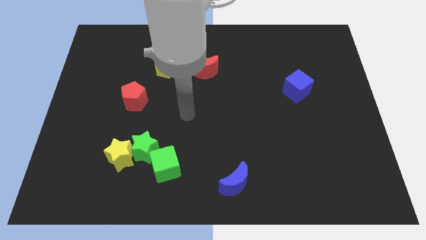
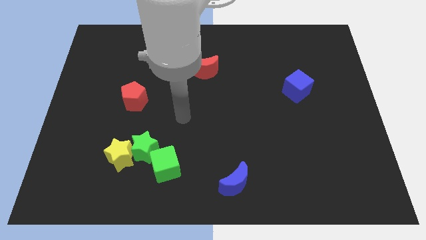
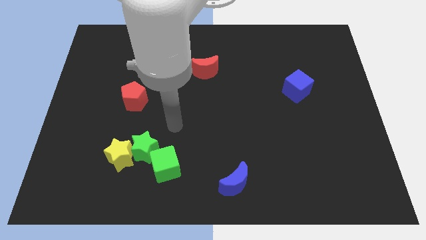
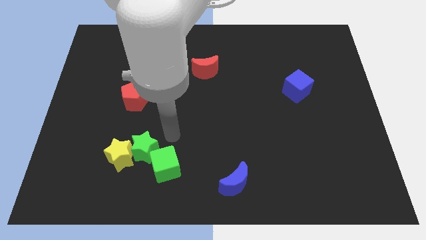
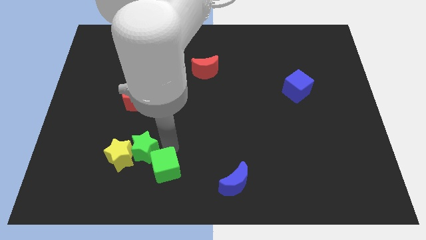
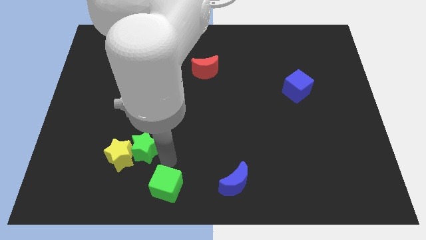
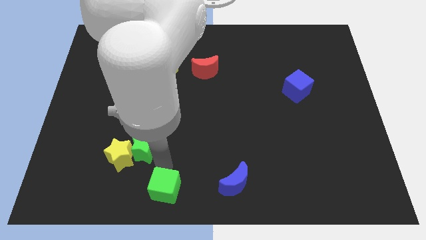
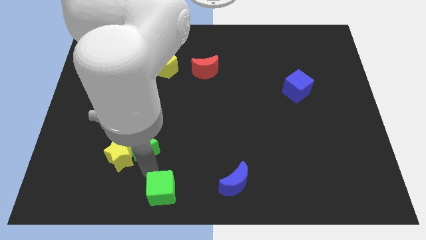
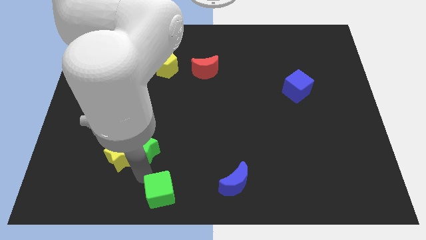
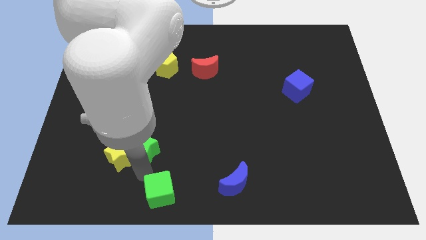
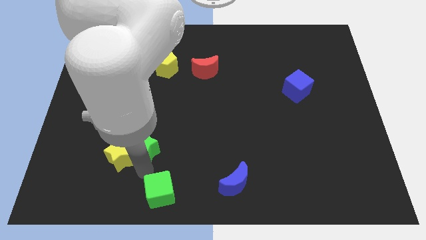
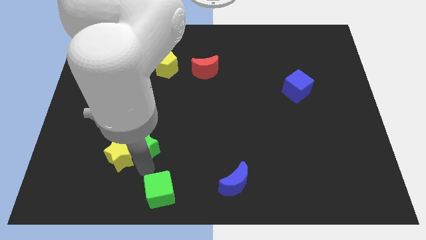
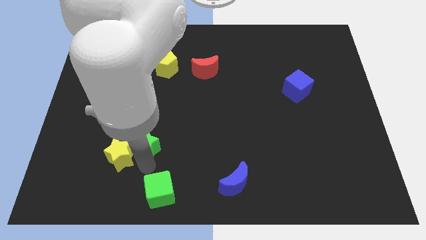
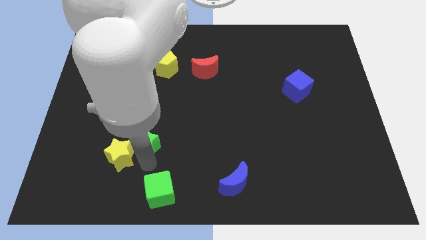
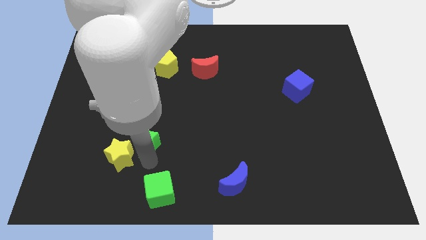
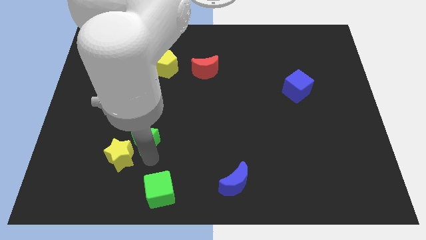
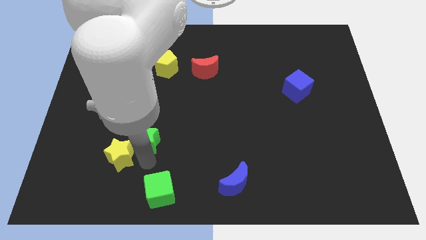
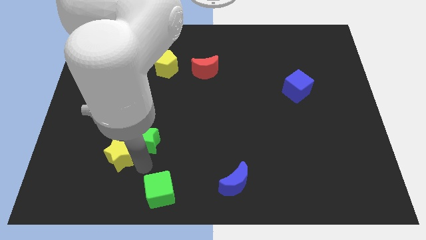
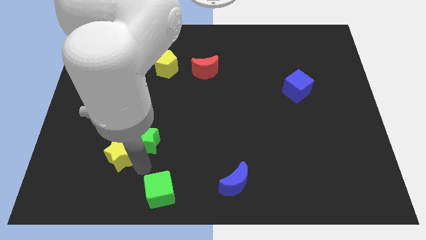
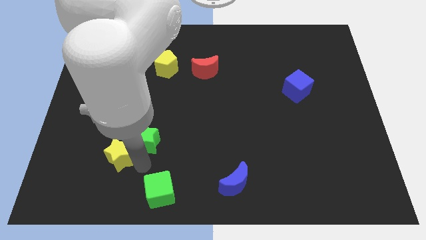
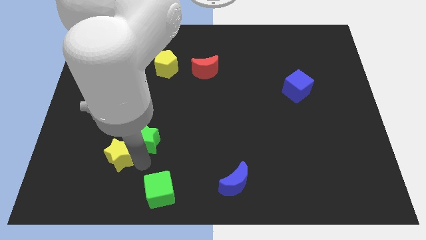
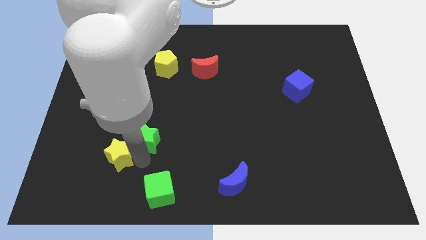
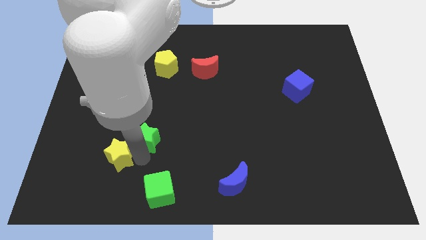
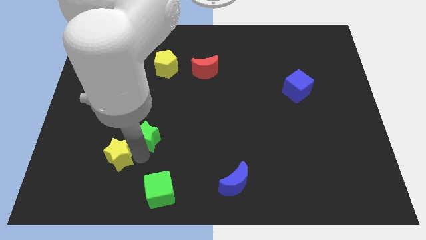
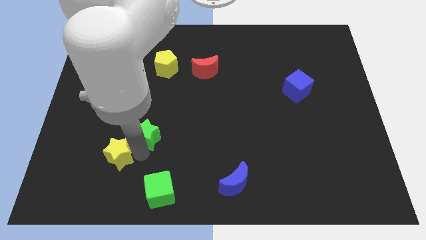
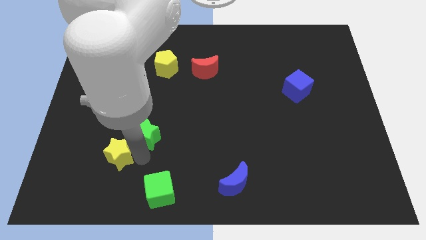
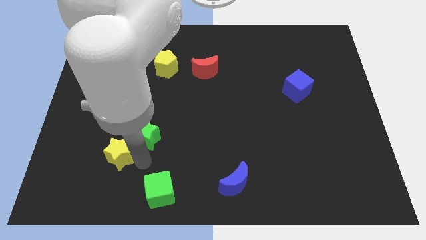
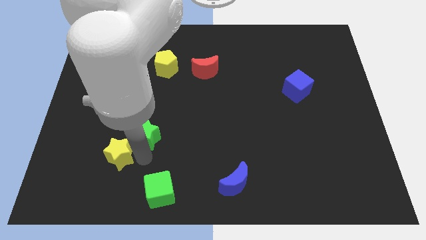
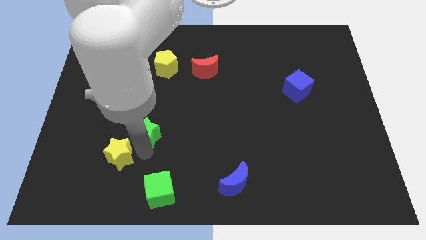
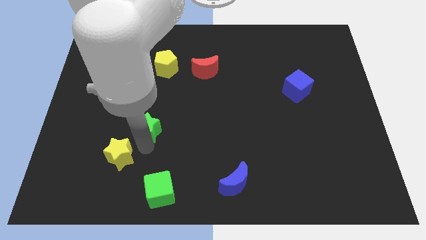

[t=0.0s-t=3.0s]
pull the green star apart from the yellow star and green cube

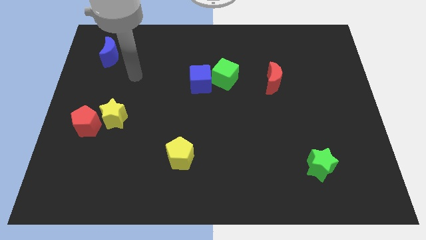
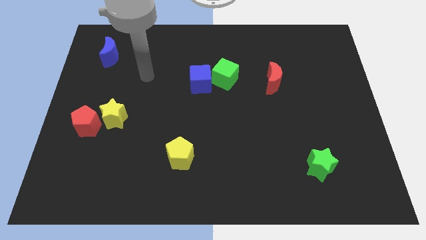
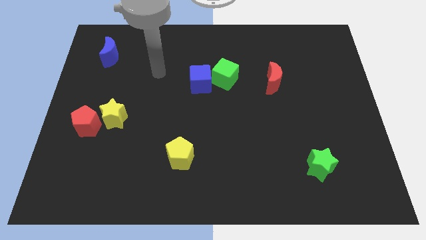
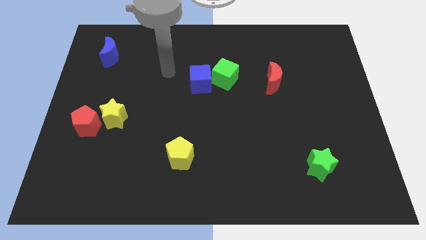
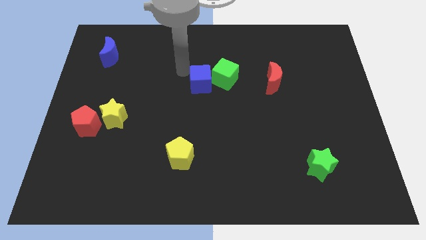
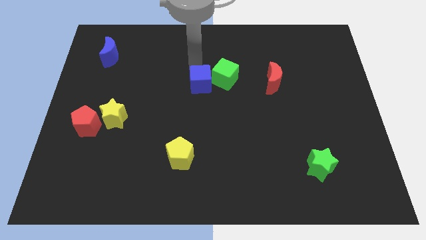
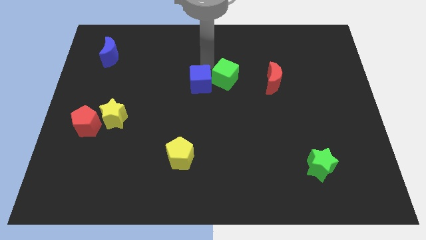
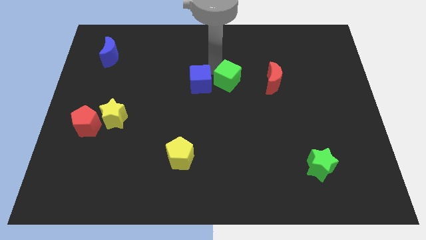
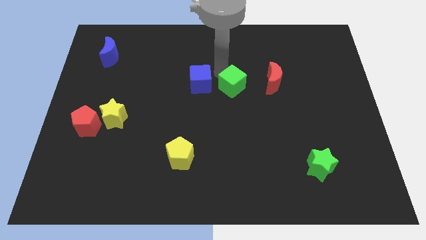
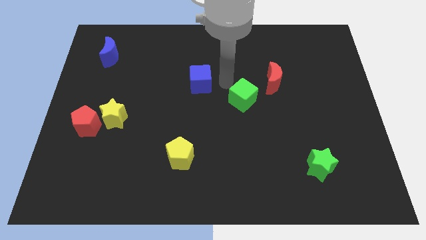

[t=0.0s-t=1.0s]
pull the blue cube apart from the green cube

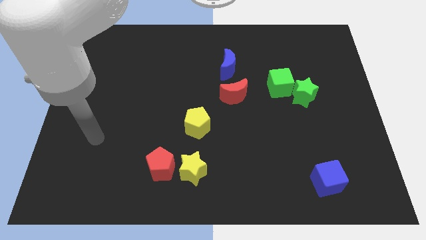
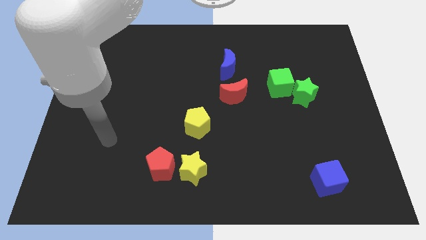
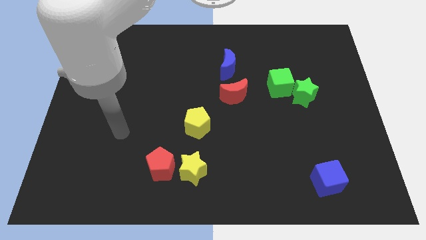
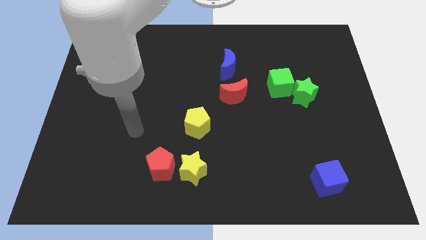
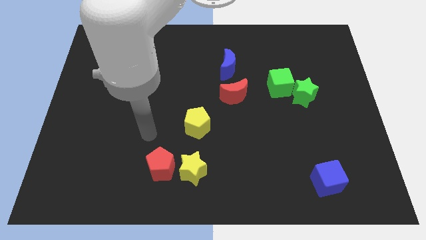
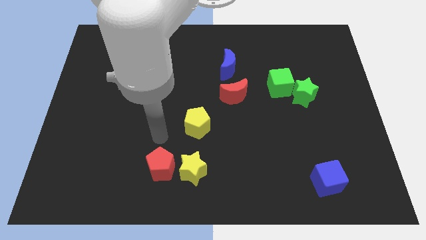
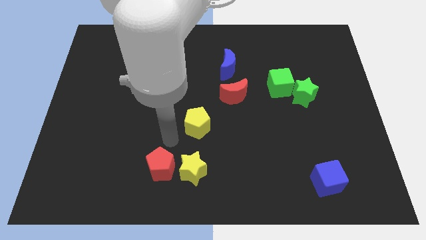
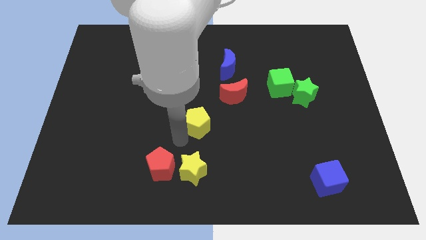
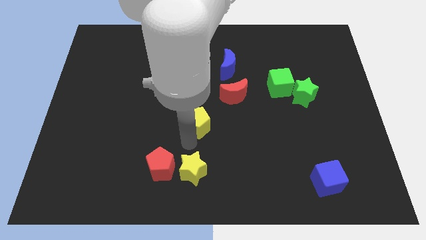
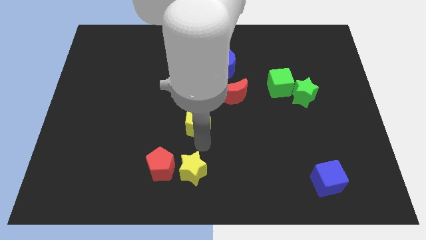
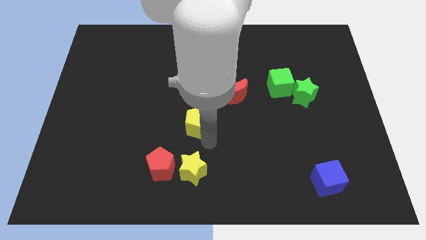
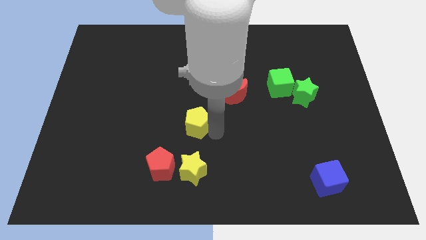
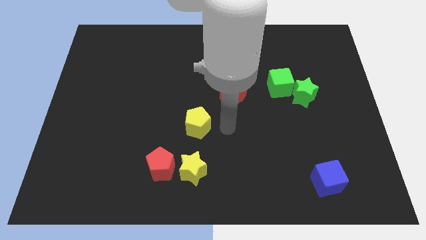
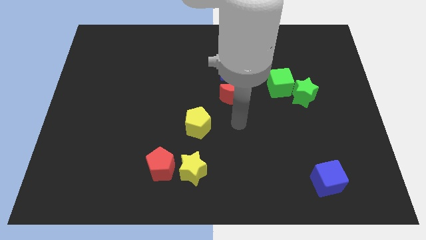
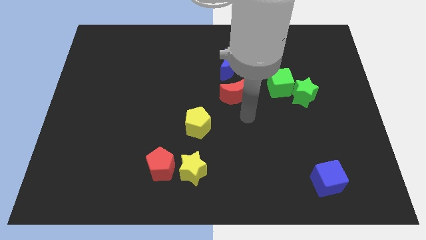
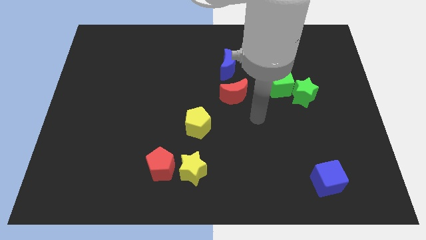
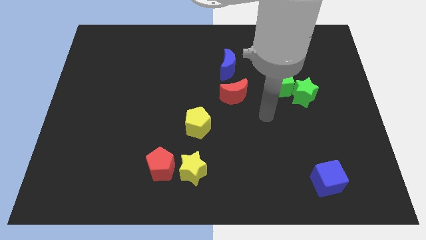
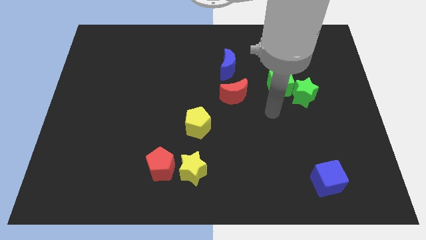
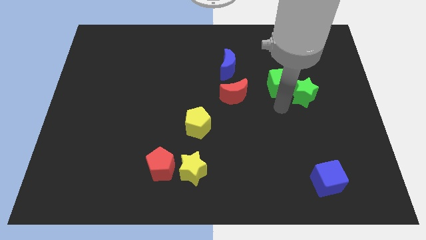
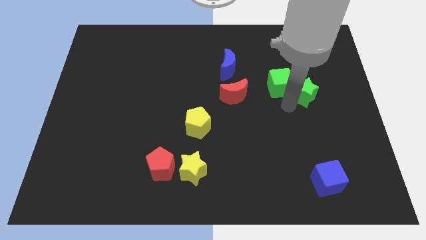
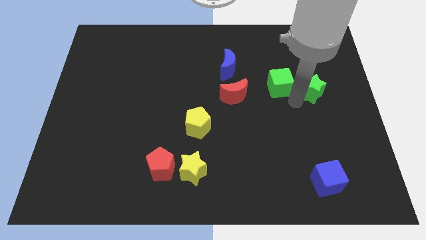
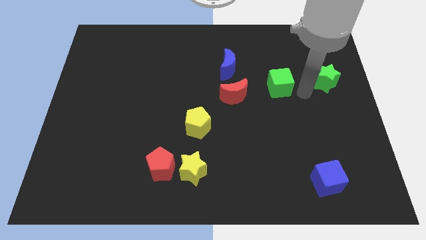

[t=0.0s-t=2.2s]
separate the green cube from the green star

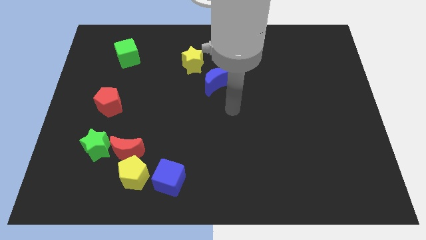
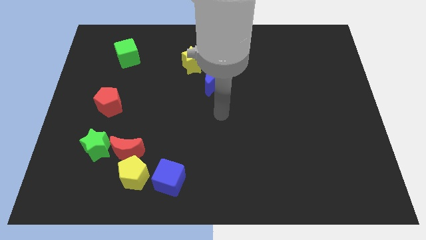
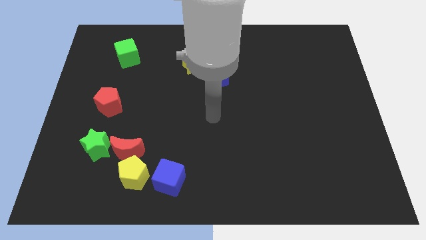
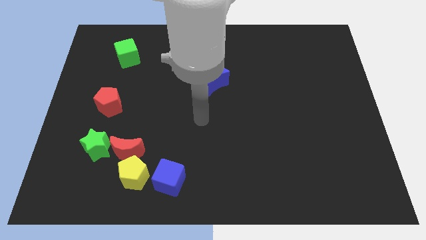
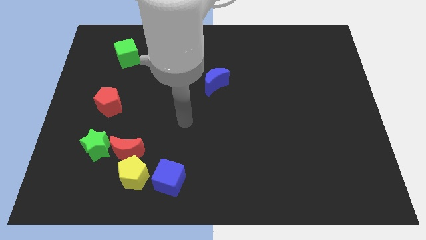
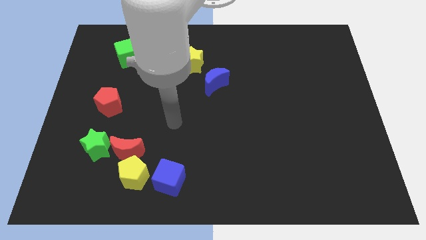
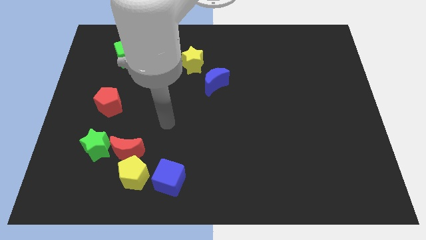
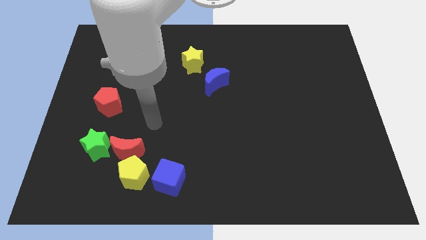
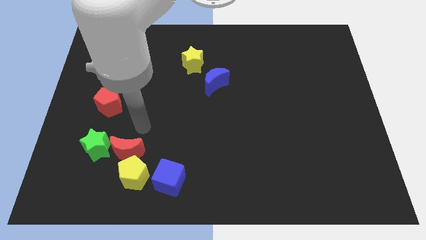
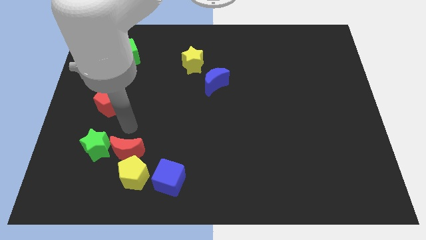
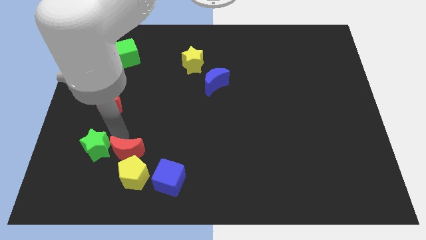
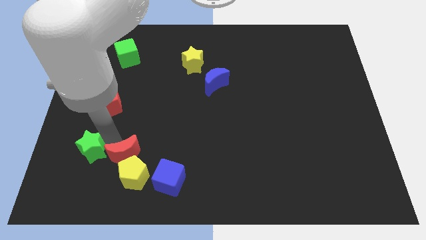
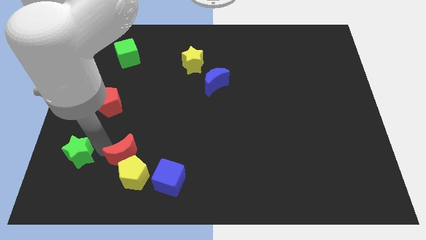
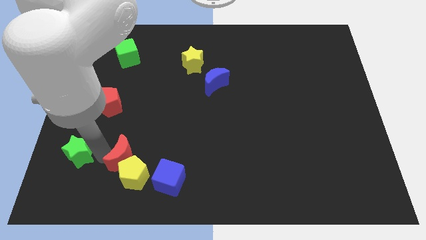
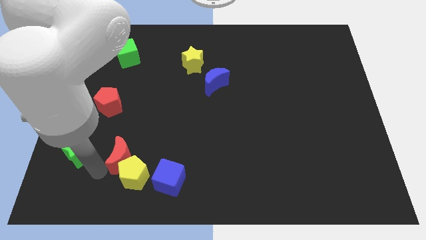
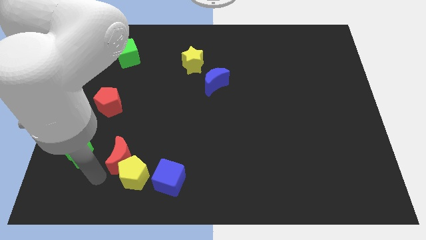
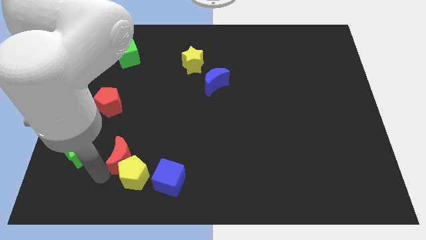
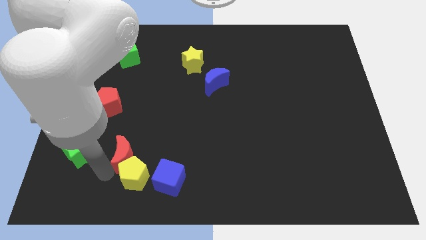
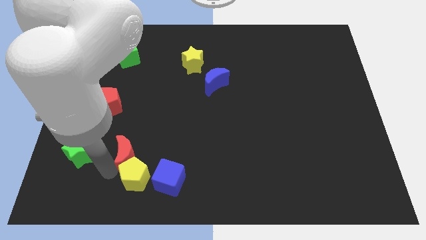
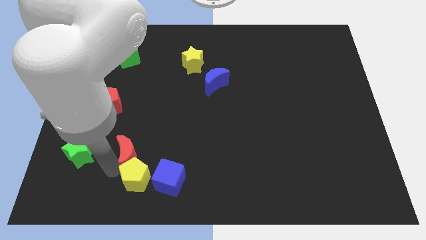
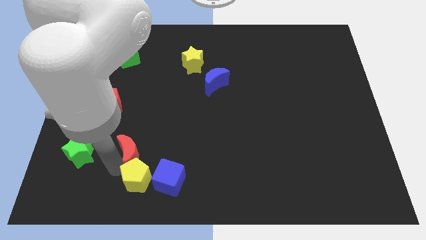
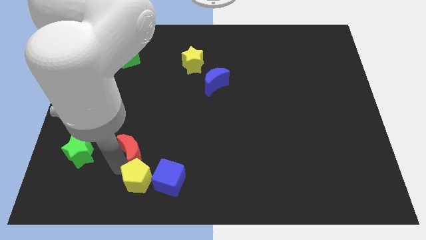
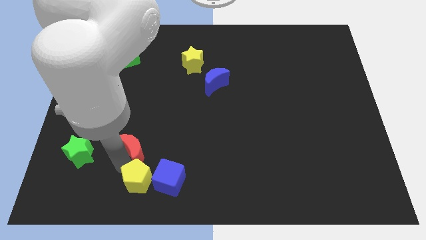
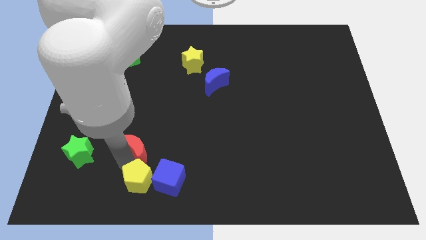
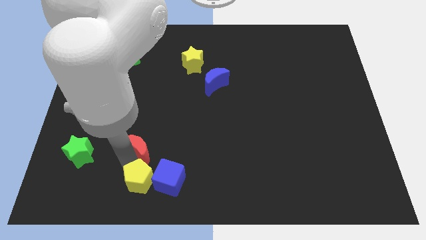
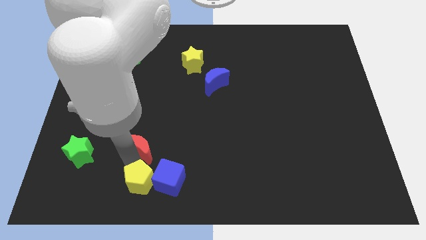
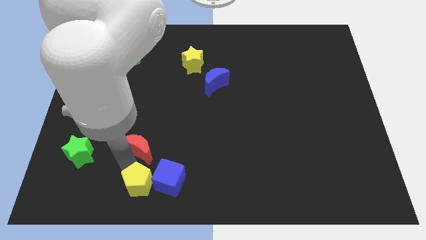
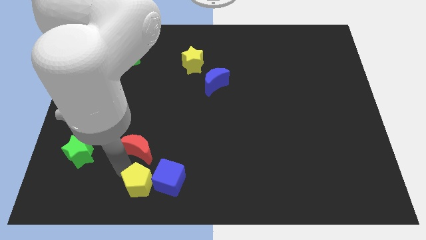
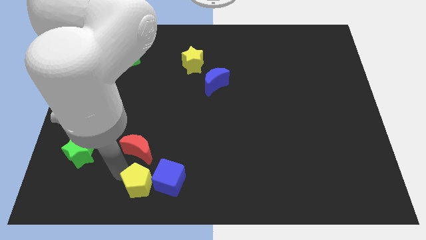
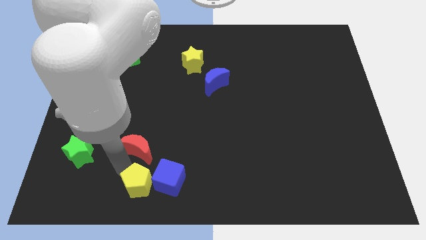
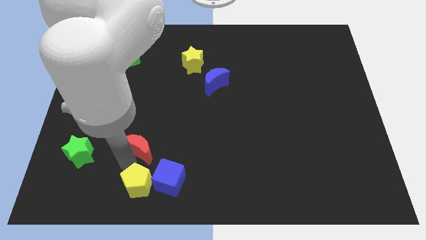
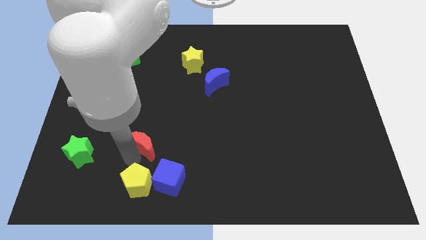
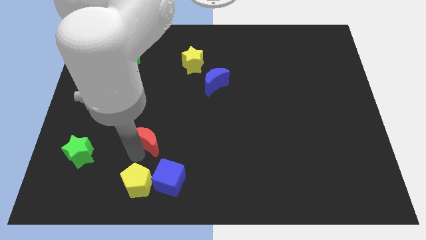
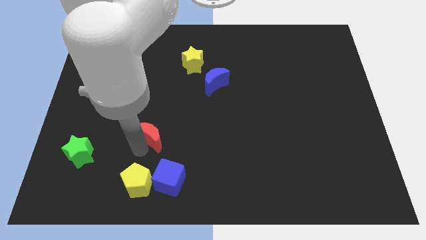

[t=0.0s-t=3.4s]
move the red moon away from the yellow pentagon and green star

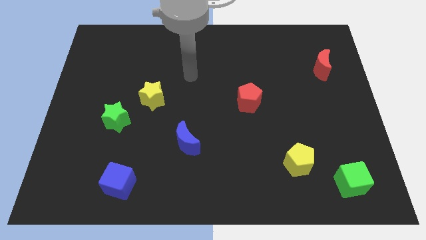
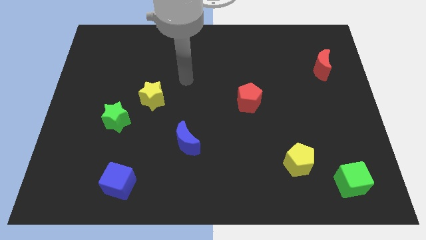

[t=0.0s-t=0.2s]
pull the green star apart from the yellow star
